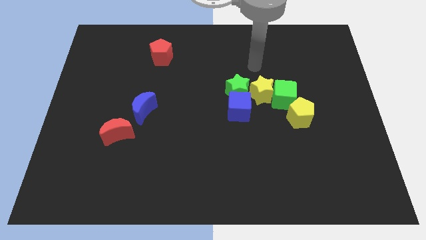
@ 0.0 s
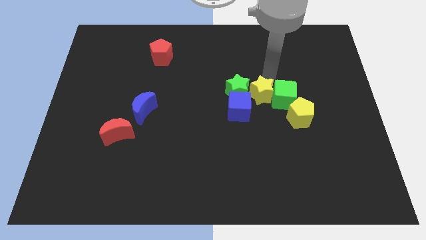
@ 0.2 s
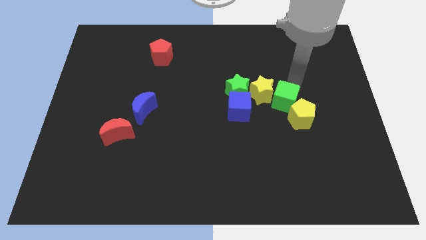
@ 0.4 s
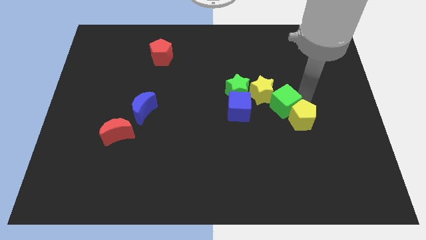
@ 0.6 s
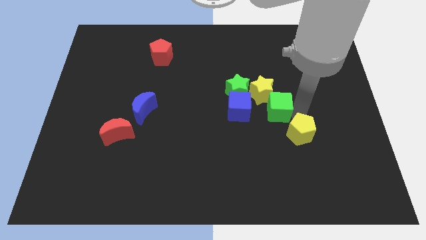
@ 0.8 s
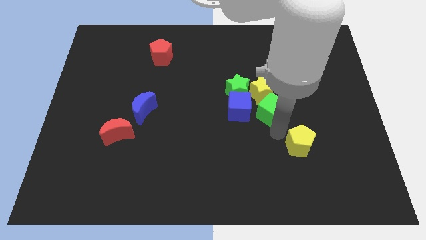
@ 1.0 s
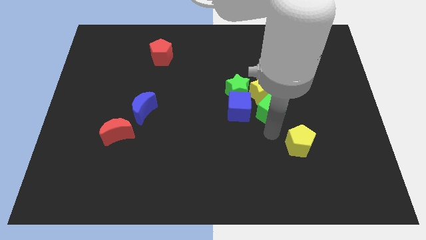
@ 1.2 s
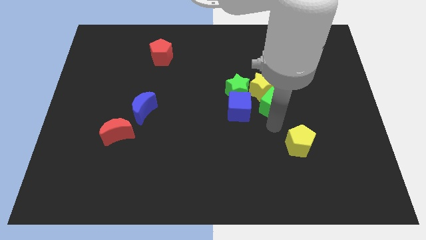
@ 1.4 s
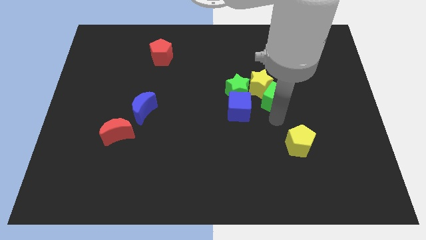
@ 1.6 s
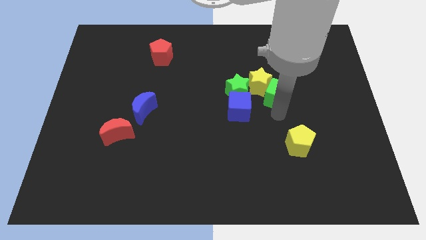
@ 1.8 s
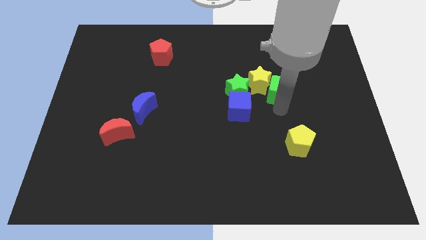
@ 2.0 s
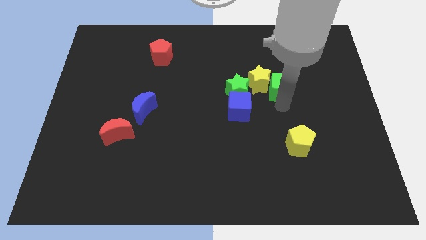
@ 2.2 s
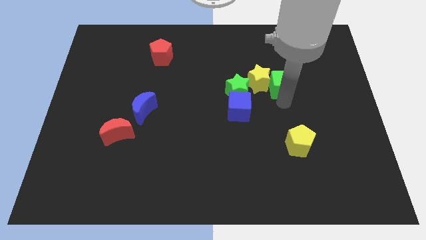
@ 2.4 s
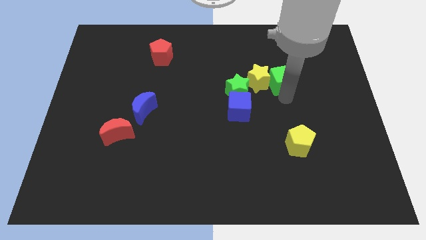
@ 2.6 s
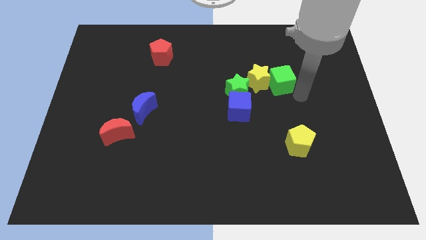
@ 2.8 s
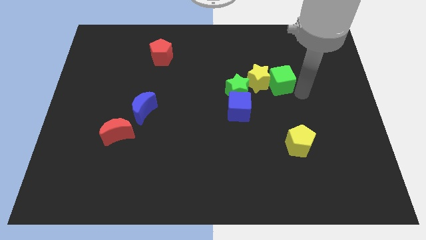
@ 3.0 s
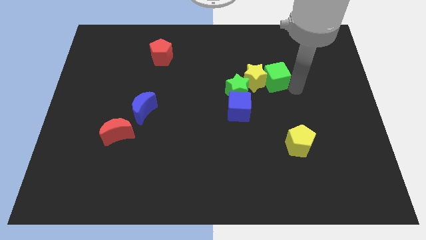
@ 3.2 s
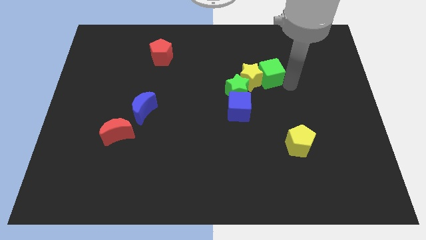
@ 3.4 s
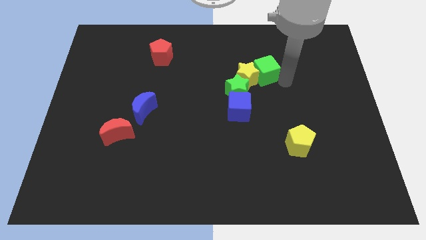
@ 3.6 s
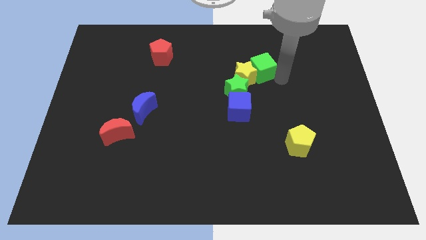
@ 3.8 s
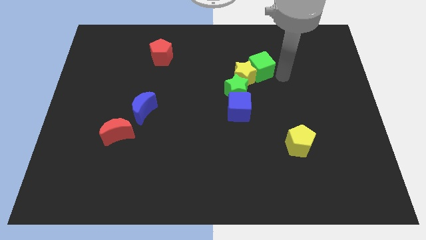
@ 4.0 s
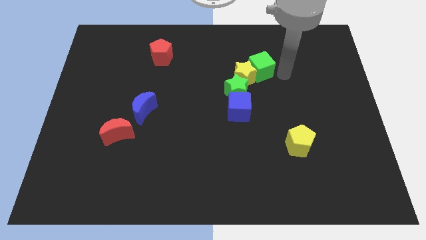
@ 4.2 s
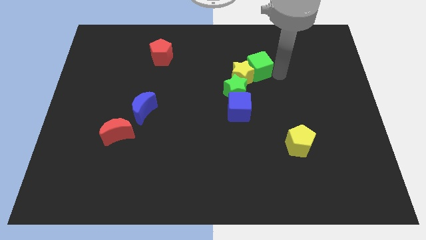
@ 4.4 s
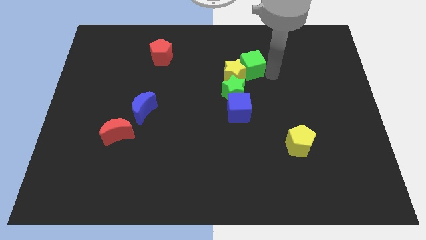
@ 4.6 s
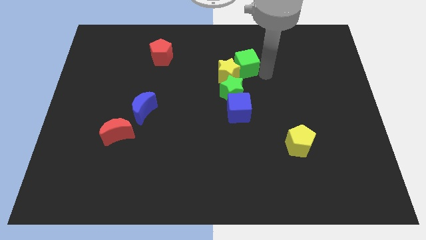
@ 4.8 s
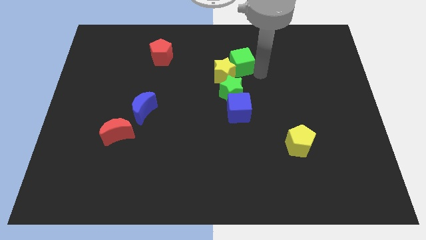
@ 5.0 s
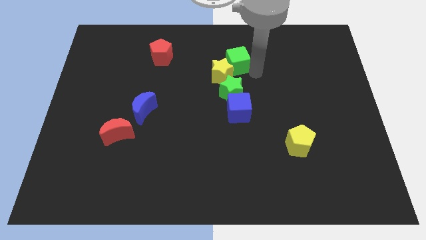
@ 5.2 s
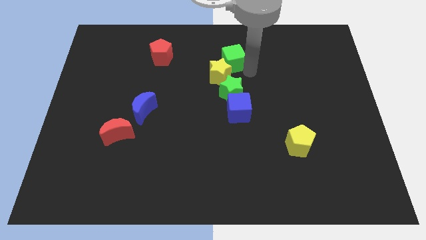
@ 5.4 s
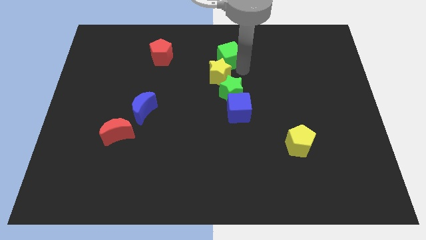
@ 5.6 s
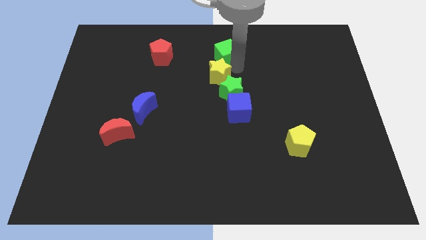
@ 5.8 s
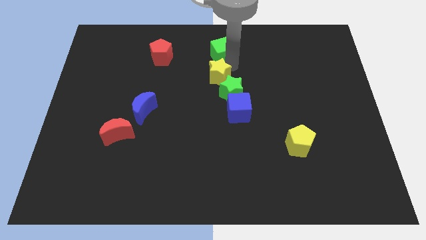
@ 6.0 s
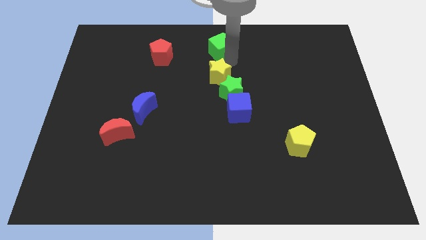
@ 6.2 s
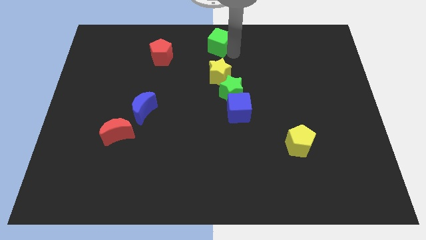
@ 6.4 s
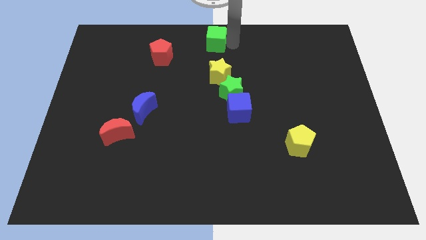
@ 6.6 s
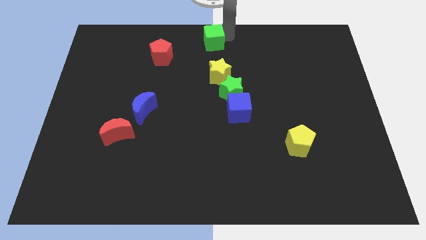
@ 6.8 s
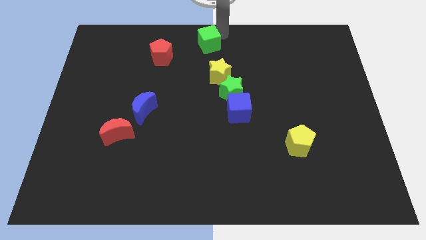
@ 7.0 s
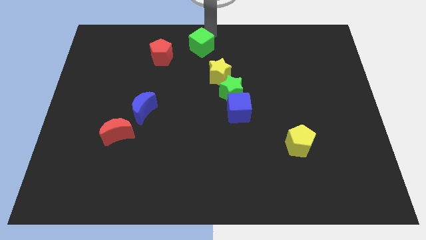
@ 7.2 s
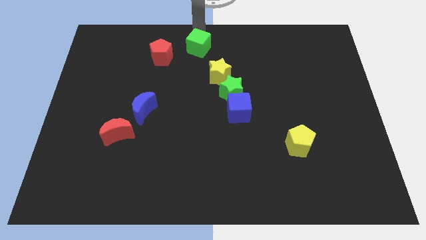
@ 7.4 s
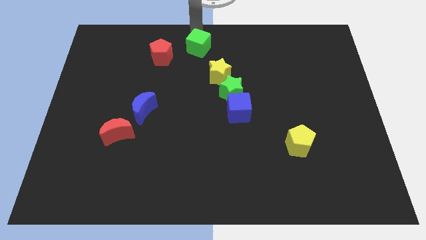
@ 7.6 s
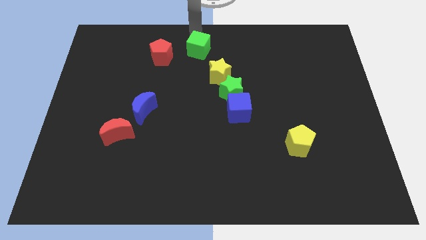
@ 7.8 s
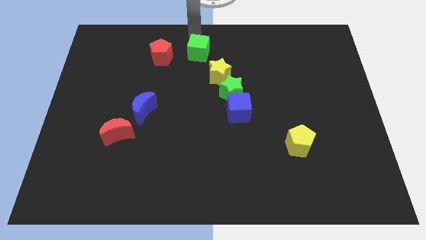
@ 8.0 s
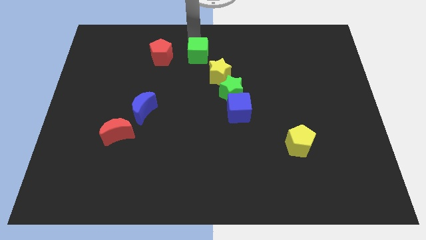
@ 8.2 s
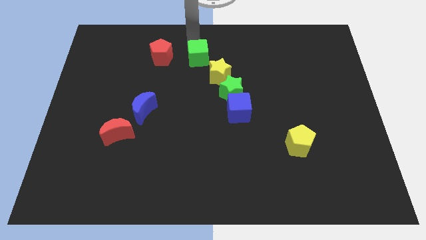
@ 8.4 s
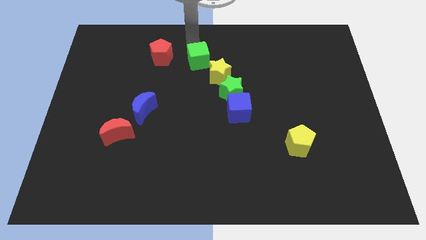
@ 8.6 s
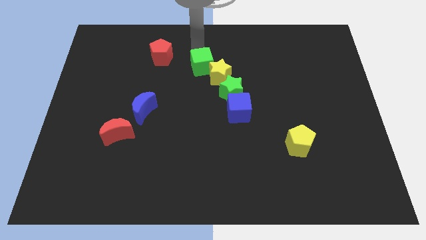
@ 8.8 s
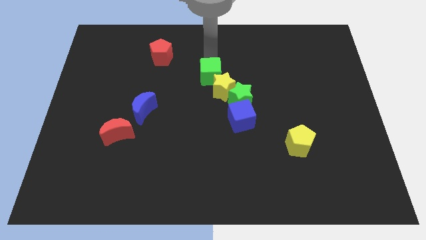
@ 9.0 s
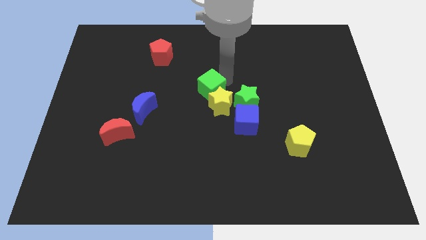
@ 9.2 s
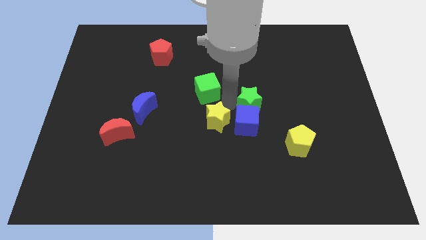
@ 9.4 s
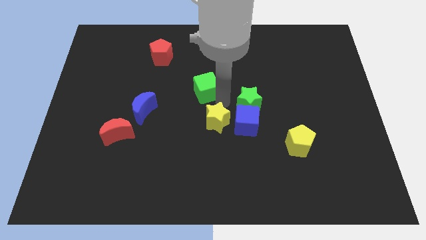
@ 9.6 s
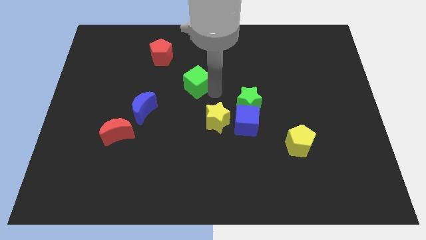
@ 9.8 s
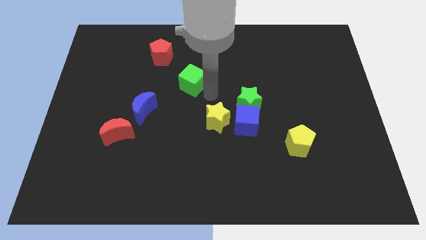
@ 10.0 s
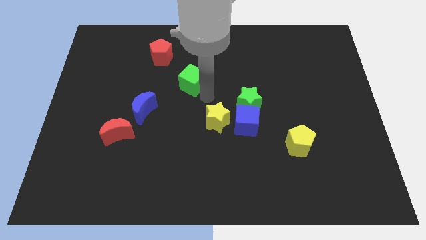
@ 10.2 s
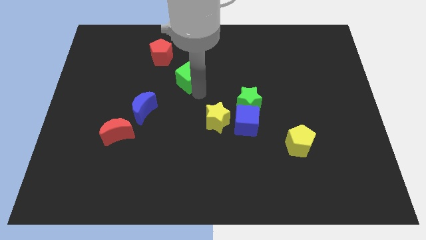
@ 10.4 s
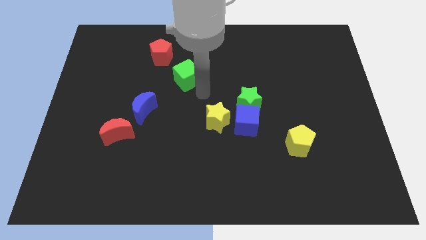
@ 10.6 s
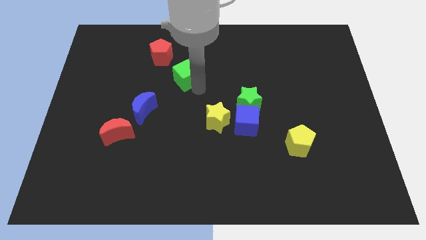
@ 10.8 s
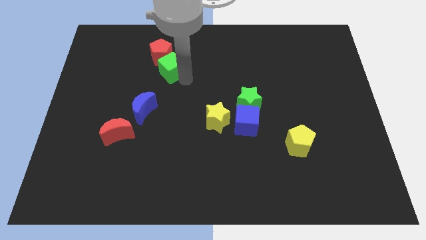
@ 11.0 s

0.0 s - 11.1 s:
put the green cube towards the red pentagon
